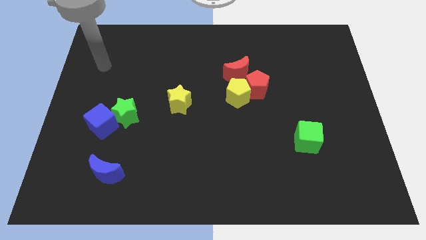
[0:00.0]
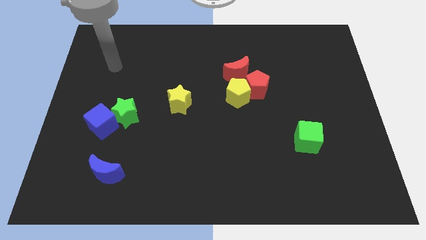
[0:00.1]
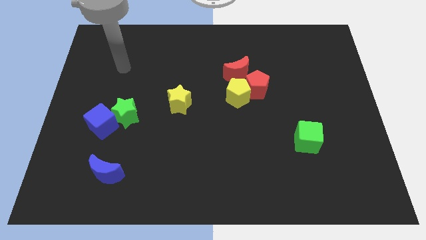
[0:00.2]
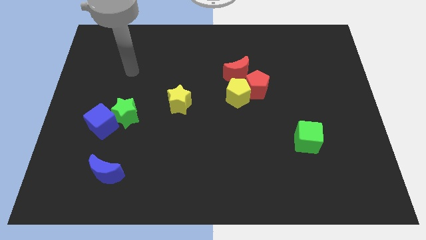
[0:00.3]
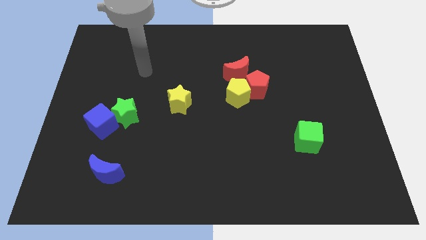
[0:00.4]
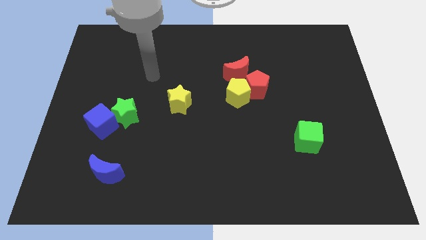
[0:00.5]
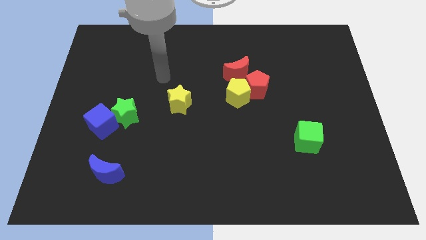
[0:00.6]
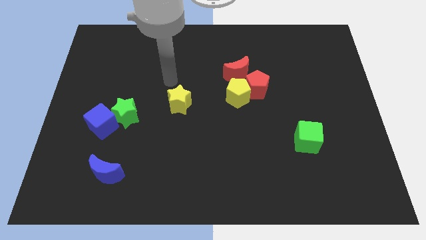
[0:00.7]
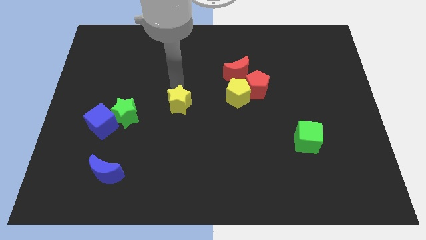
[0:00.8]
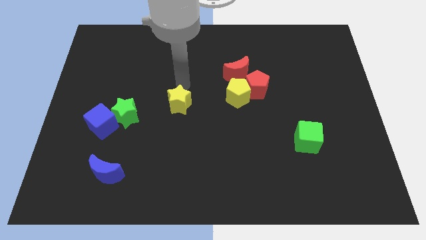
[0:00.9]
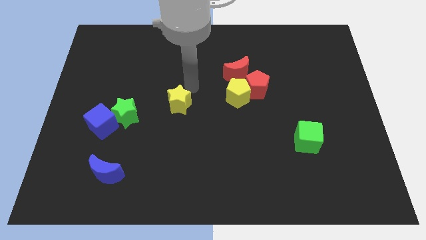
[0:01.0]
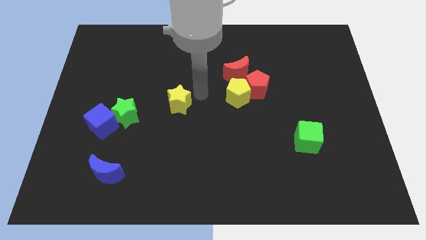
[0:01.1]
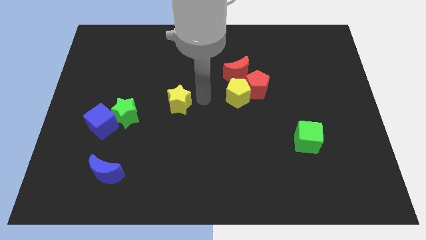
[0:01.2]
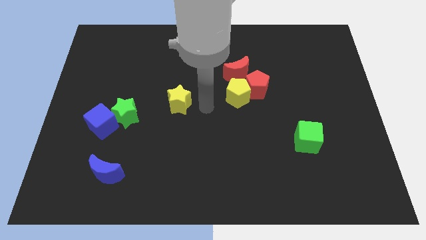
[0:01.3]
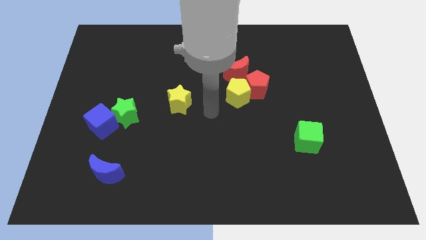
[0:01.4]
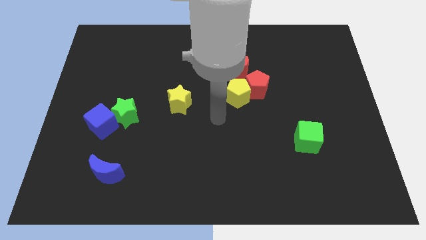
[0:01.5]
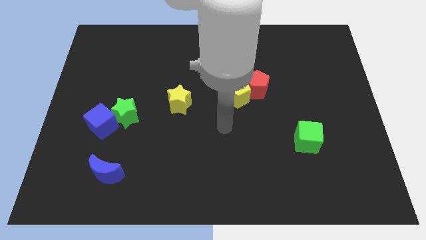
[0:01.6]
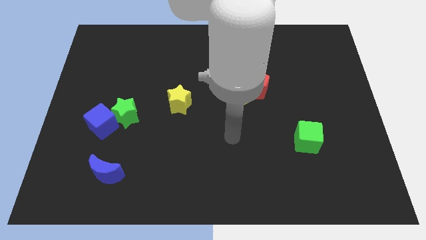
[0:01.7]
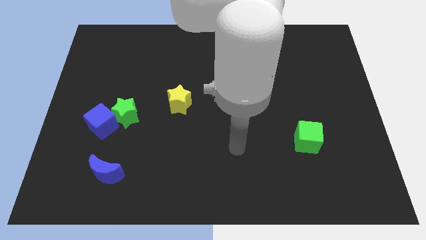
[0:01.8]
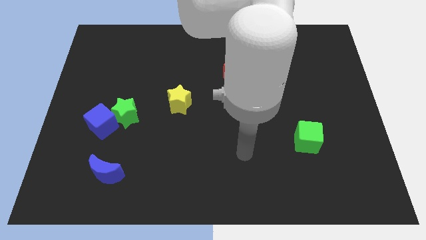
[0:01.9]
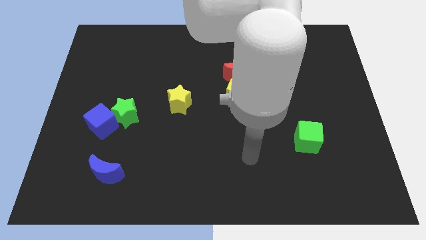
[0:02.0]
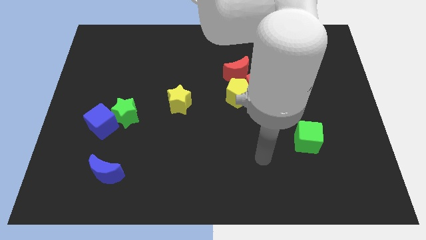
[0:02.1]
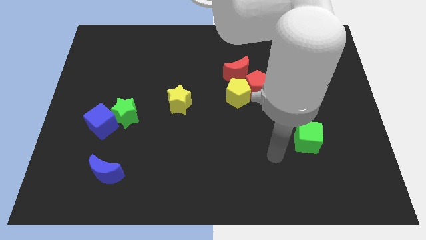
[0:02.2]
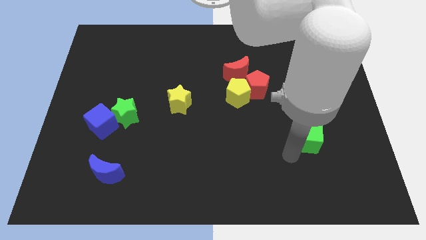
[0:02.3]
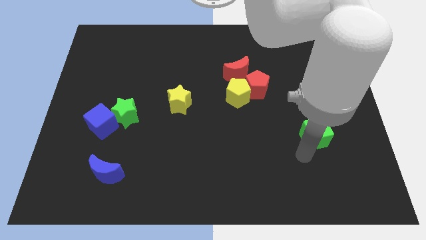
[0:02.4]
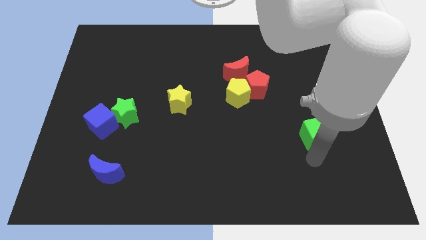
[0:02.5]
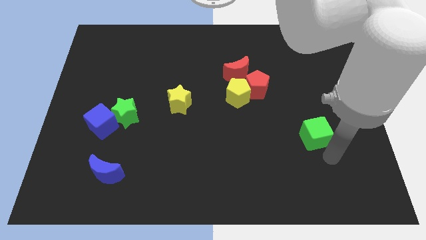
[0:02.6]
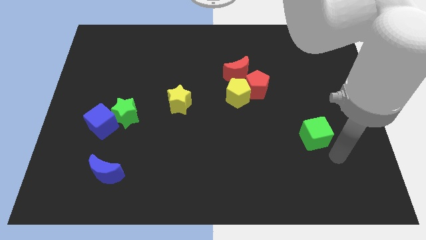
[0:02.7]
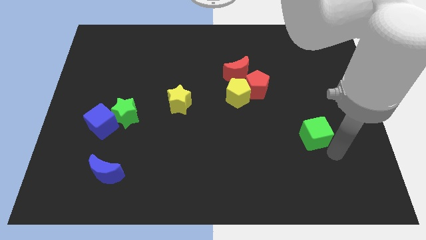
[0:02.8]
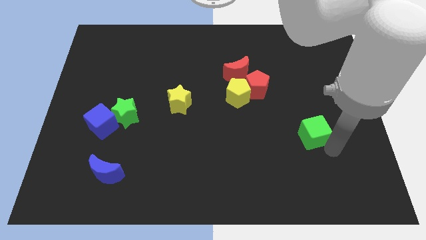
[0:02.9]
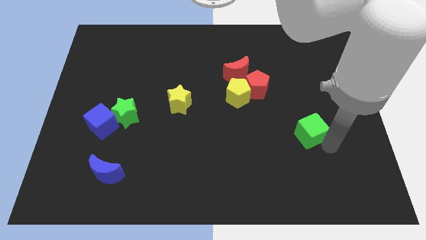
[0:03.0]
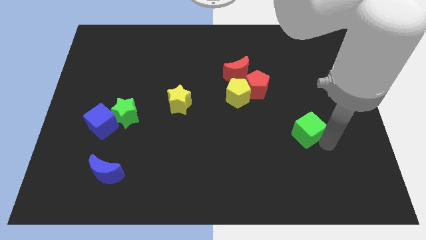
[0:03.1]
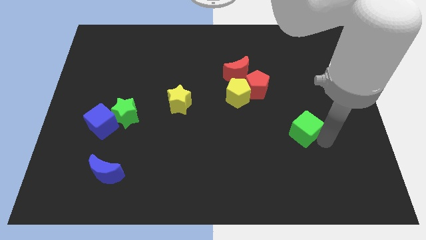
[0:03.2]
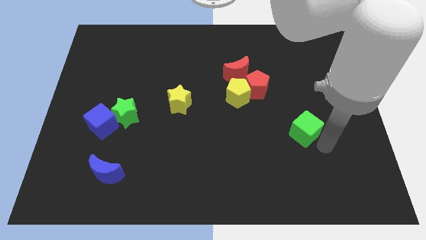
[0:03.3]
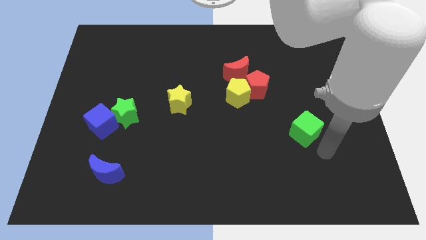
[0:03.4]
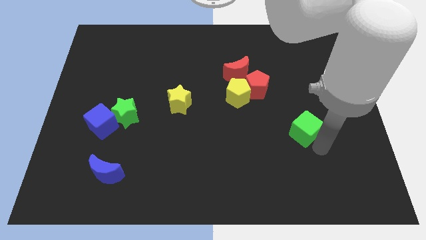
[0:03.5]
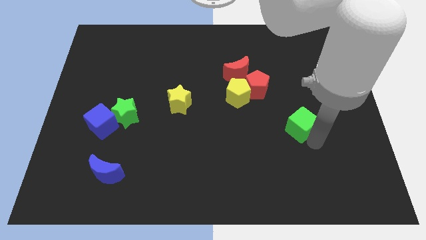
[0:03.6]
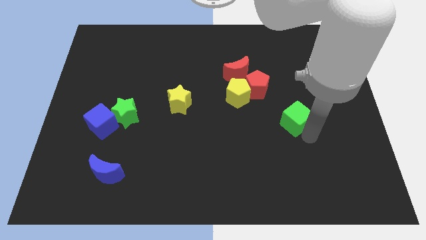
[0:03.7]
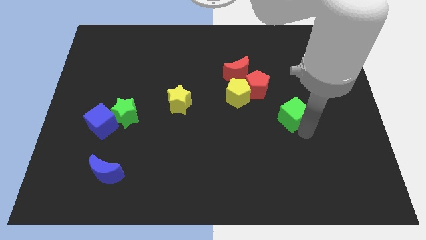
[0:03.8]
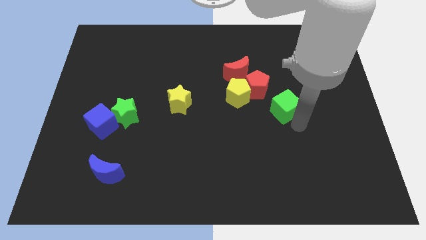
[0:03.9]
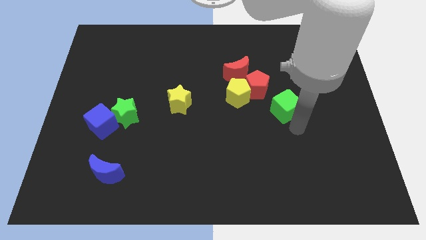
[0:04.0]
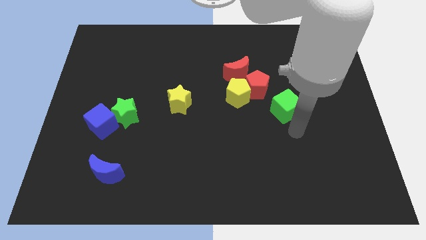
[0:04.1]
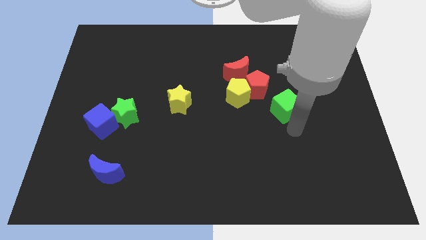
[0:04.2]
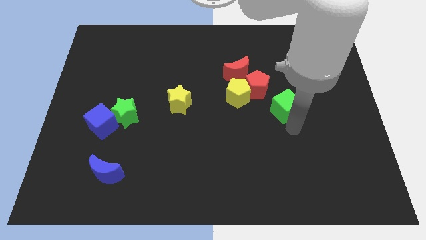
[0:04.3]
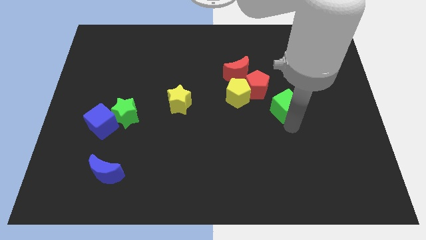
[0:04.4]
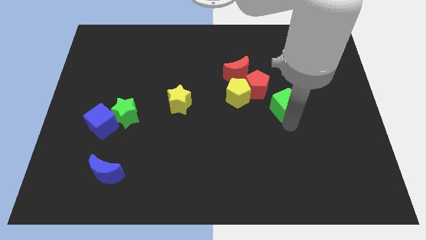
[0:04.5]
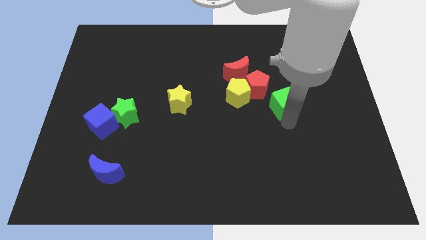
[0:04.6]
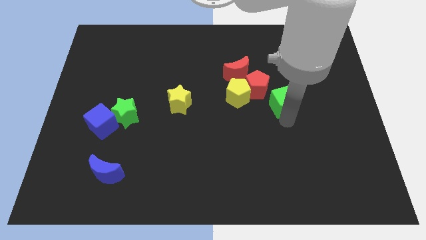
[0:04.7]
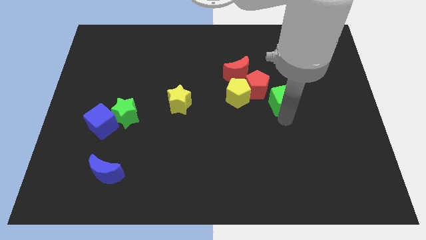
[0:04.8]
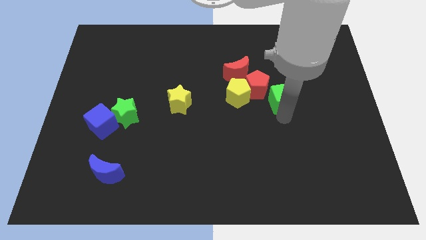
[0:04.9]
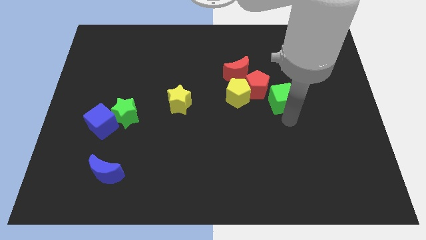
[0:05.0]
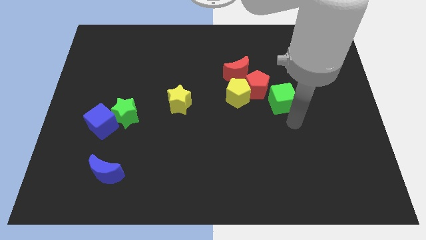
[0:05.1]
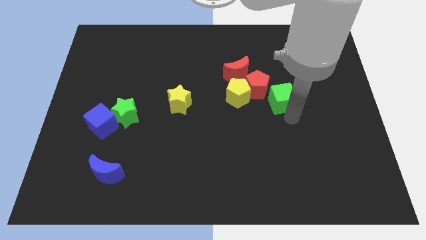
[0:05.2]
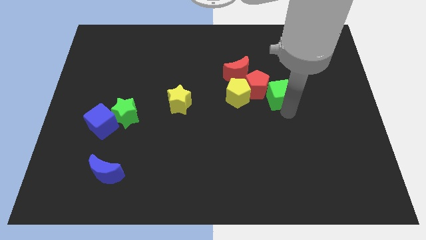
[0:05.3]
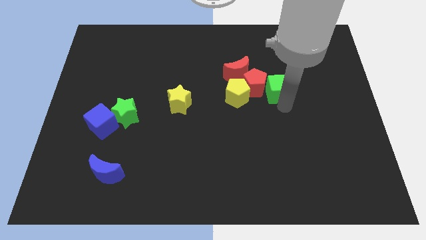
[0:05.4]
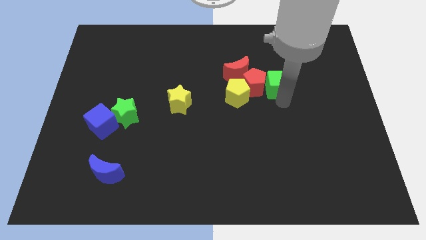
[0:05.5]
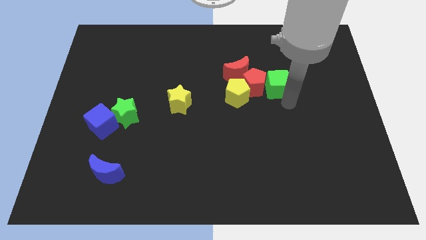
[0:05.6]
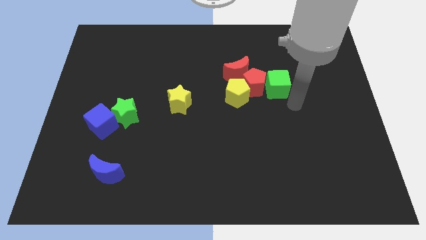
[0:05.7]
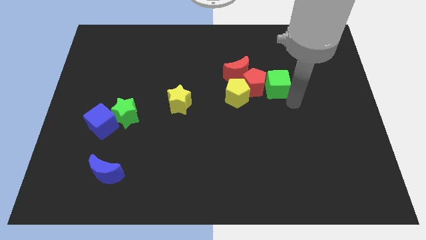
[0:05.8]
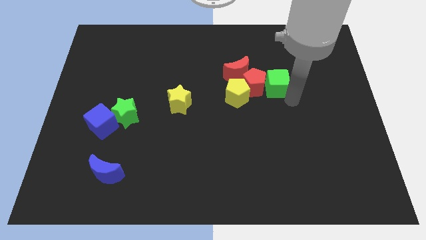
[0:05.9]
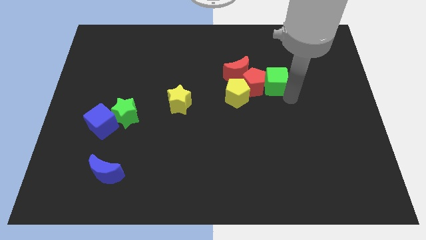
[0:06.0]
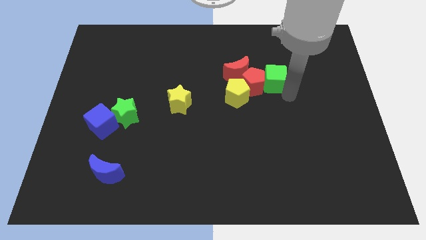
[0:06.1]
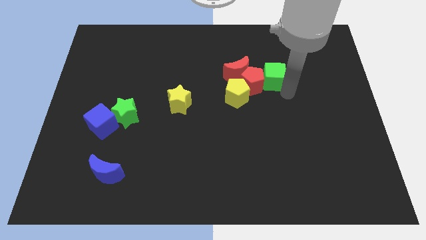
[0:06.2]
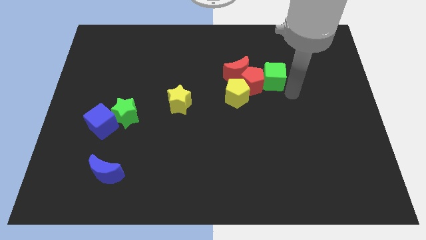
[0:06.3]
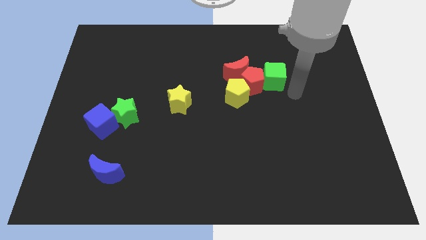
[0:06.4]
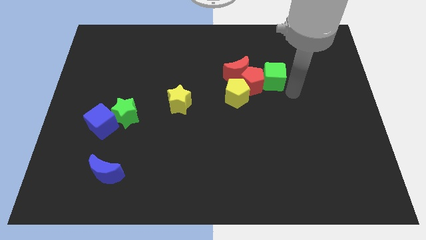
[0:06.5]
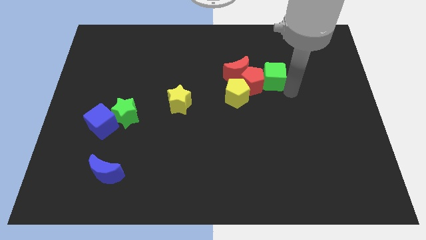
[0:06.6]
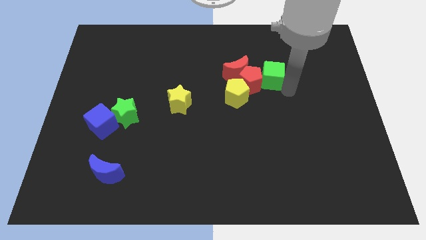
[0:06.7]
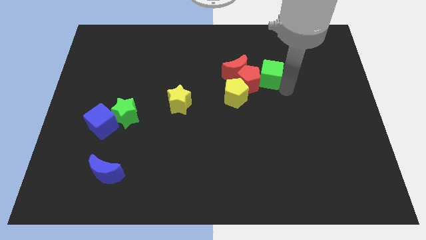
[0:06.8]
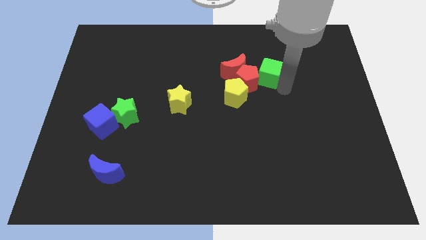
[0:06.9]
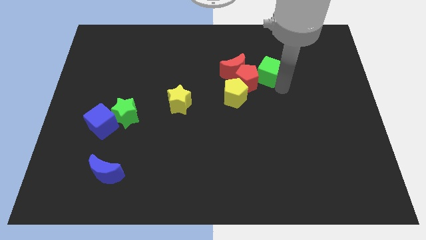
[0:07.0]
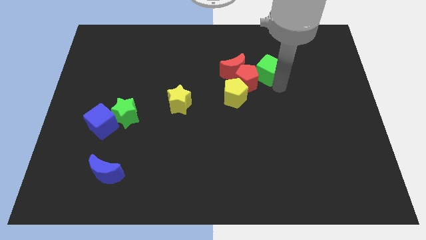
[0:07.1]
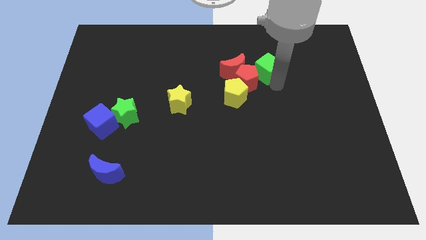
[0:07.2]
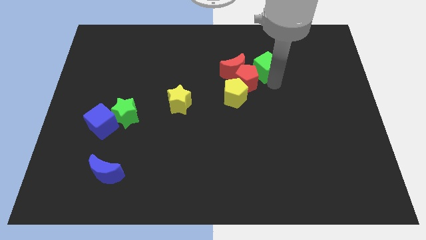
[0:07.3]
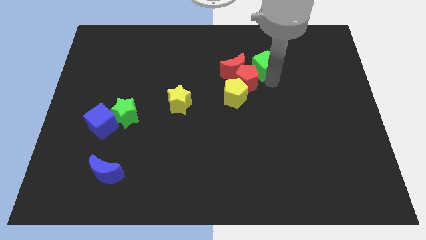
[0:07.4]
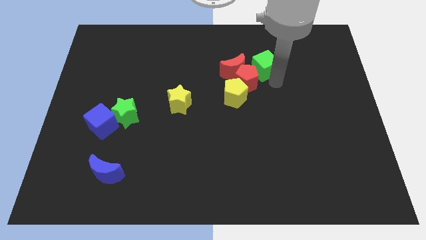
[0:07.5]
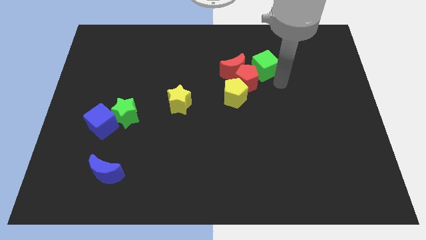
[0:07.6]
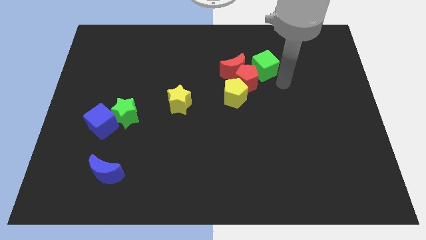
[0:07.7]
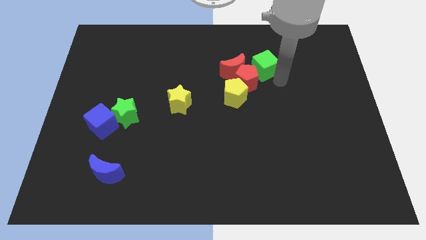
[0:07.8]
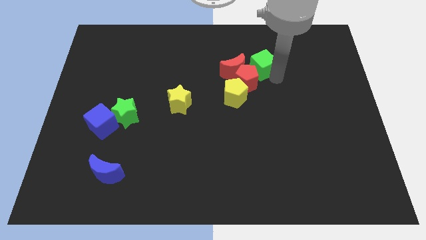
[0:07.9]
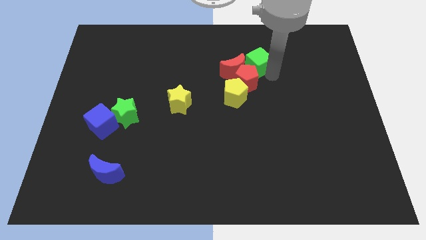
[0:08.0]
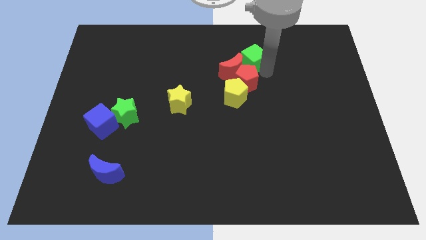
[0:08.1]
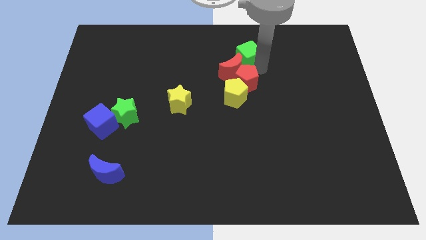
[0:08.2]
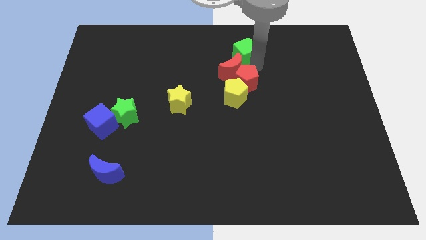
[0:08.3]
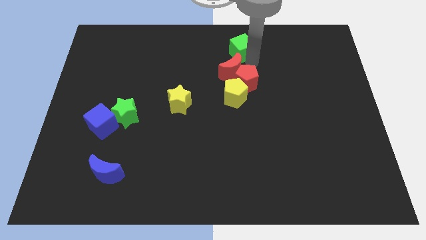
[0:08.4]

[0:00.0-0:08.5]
push the green cube to the top side
